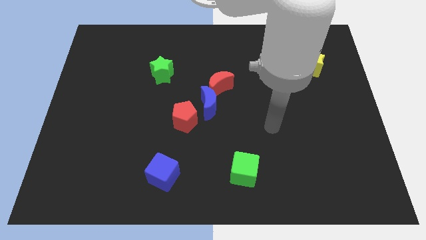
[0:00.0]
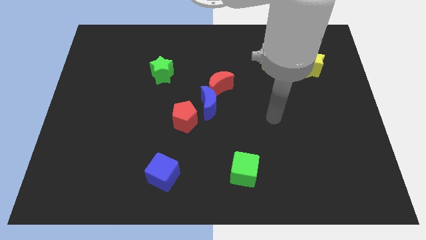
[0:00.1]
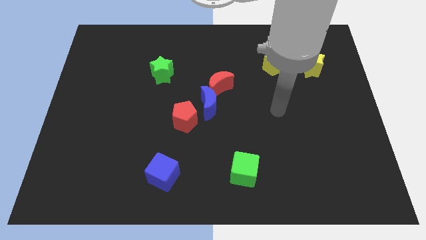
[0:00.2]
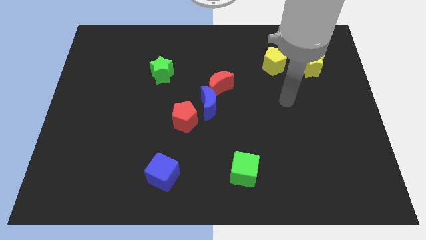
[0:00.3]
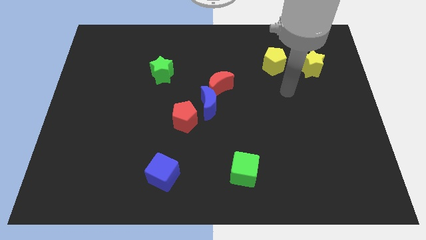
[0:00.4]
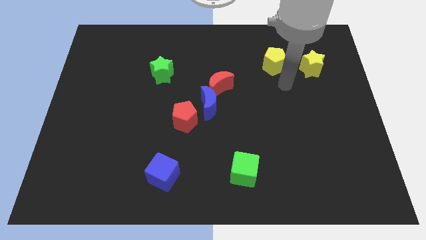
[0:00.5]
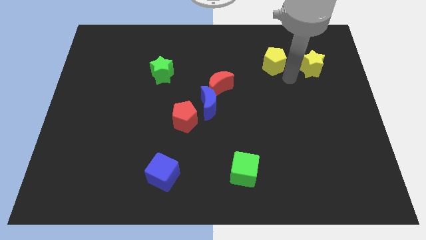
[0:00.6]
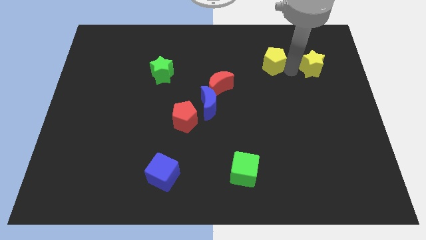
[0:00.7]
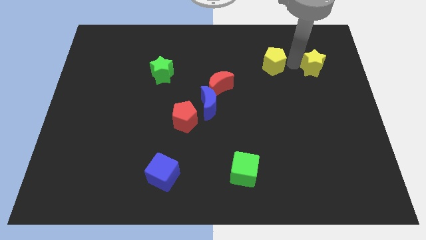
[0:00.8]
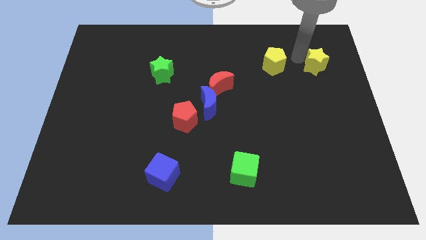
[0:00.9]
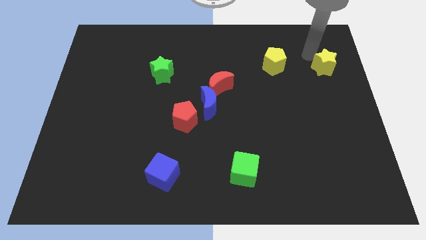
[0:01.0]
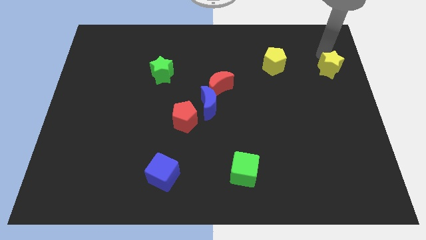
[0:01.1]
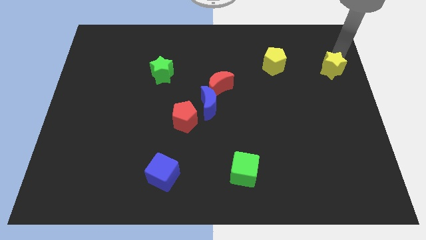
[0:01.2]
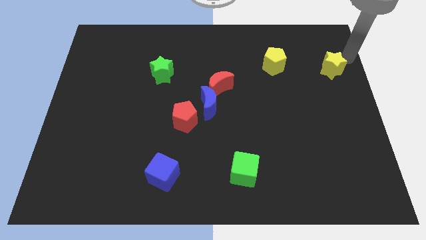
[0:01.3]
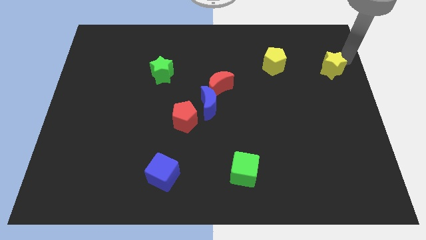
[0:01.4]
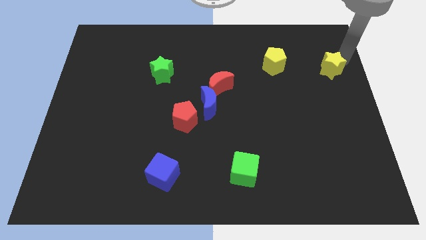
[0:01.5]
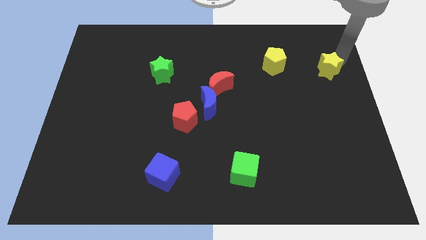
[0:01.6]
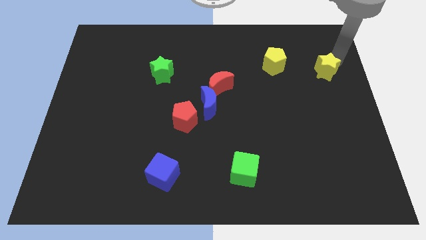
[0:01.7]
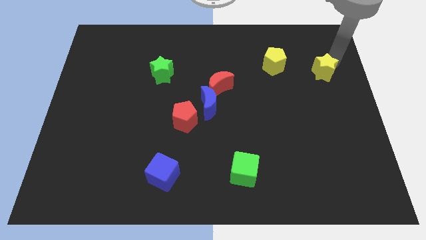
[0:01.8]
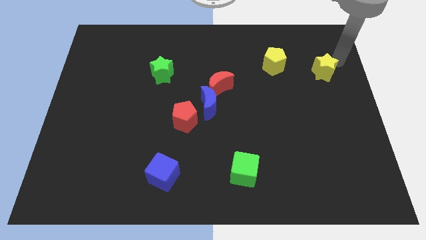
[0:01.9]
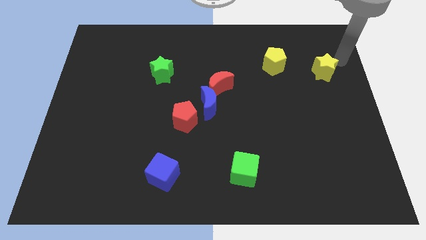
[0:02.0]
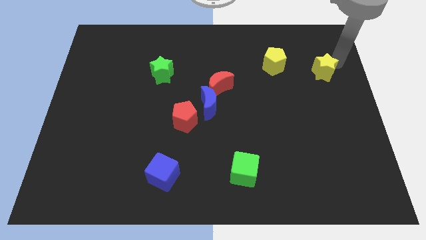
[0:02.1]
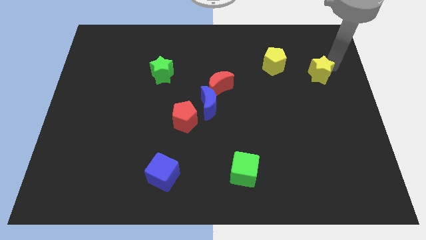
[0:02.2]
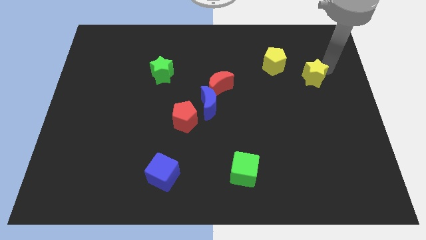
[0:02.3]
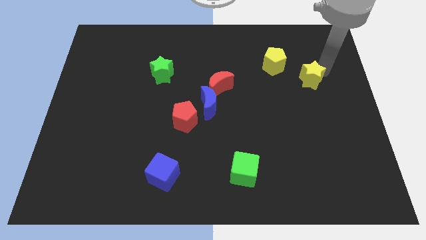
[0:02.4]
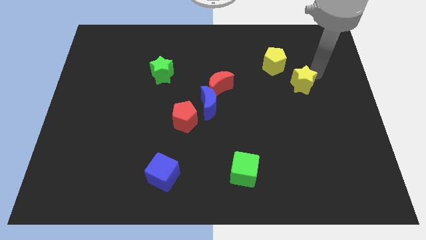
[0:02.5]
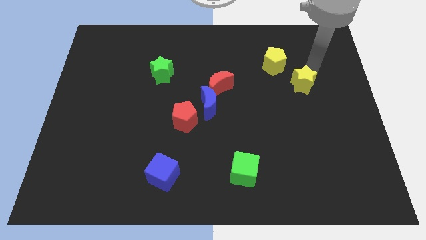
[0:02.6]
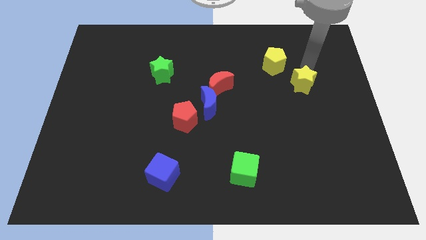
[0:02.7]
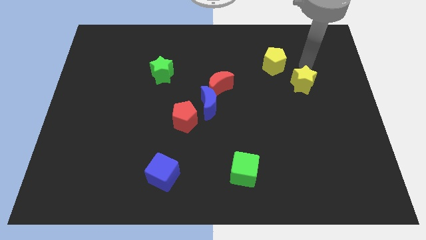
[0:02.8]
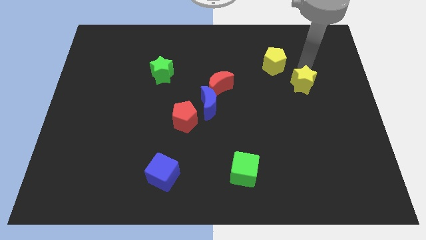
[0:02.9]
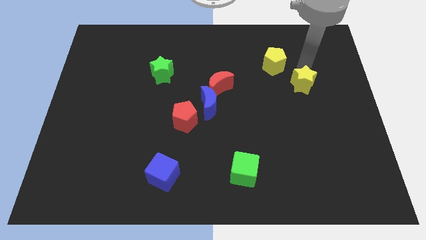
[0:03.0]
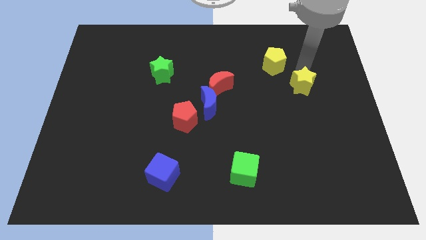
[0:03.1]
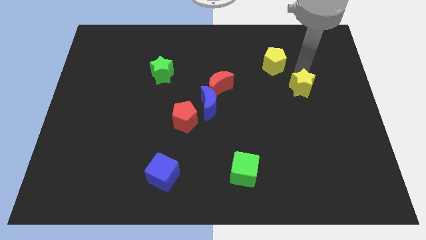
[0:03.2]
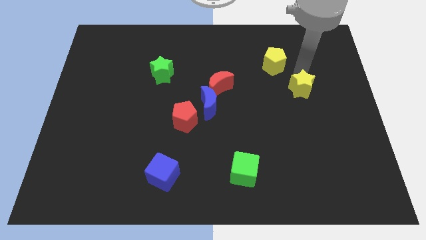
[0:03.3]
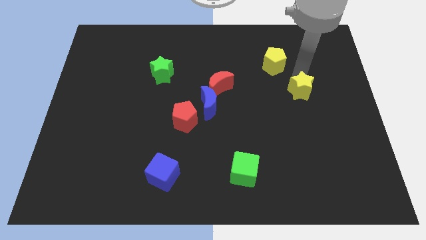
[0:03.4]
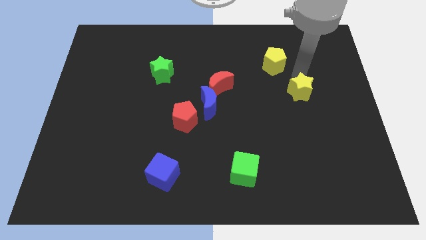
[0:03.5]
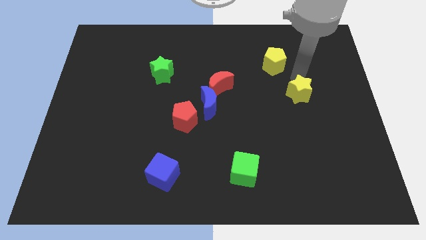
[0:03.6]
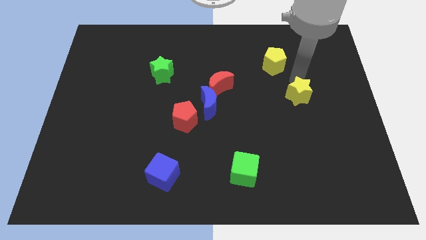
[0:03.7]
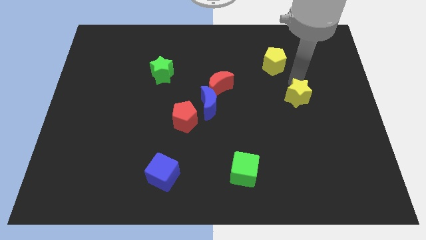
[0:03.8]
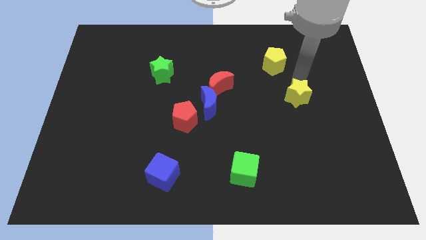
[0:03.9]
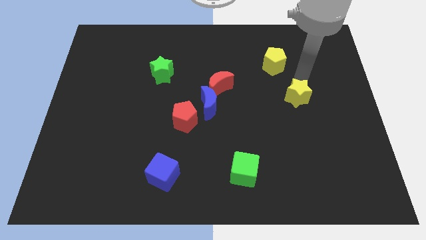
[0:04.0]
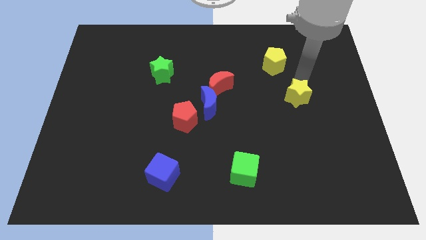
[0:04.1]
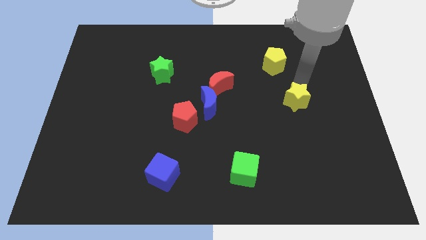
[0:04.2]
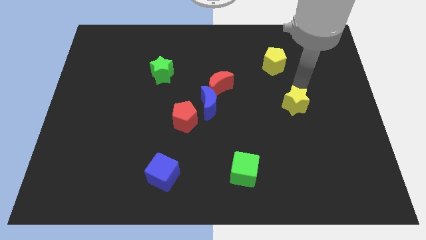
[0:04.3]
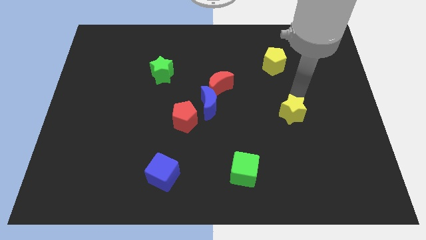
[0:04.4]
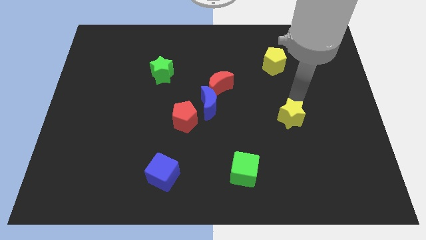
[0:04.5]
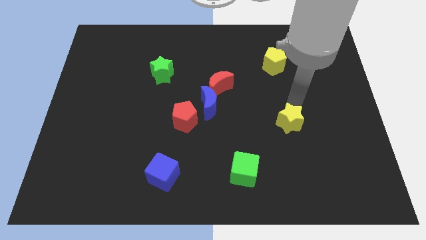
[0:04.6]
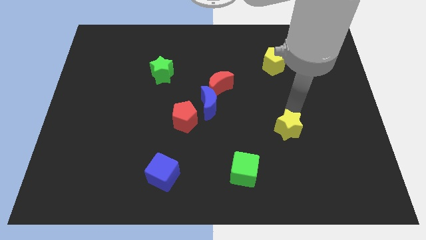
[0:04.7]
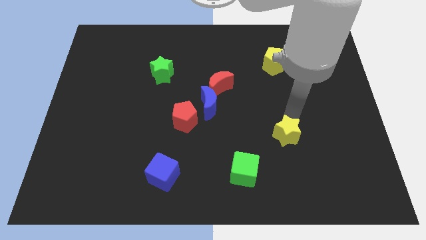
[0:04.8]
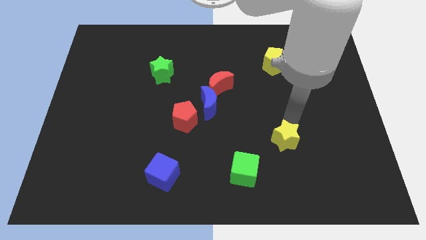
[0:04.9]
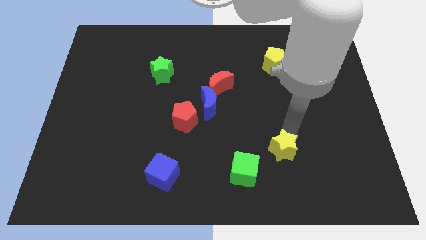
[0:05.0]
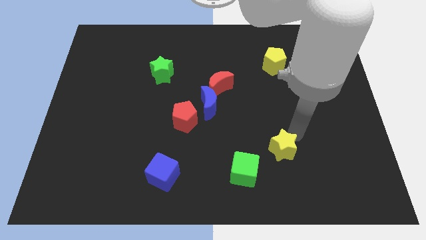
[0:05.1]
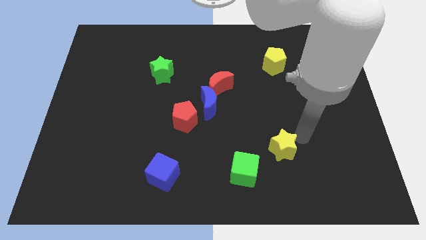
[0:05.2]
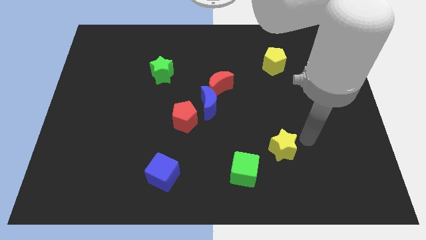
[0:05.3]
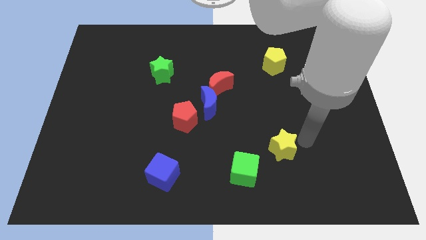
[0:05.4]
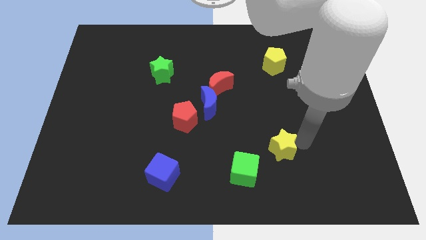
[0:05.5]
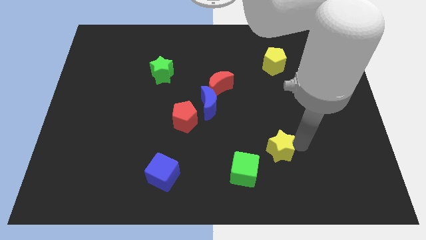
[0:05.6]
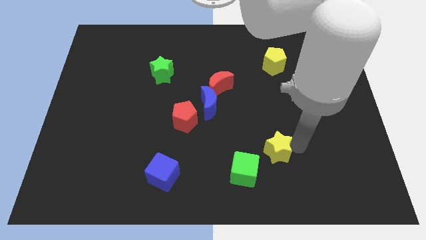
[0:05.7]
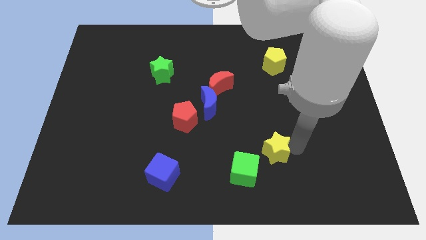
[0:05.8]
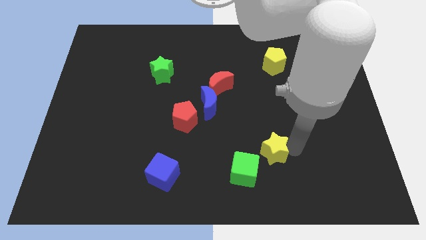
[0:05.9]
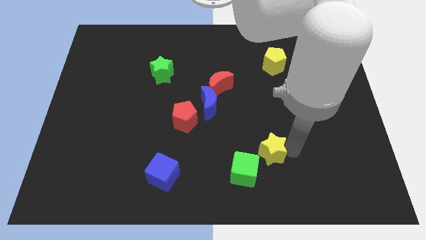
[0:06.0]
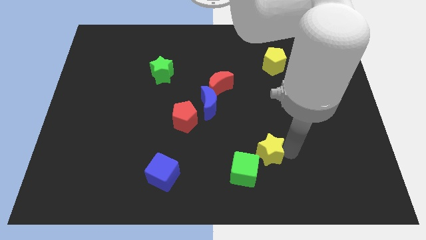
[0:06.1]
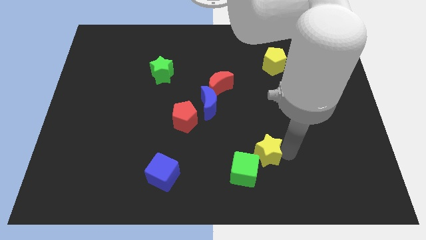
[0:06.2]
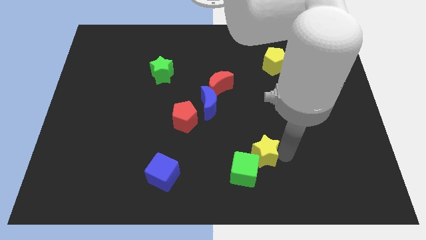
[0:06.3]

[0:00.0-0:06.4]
put the yellow star close to the green cube

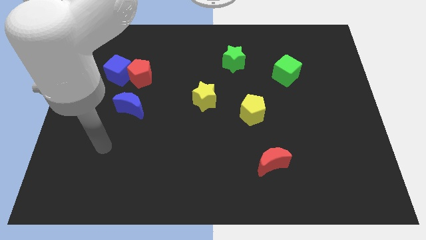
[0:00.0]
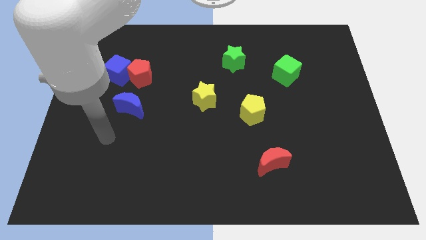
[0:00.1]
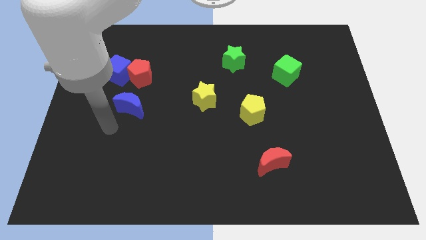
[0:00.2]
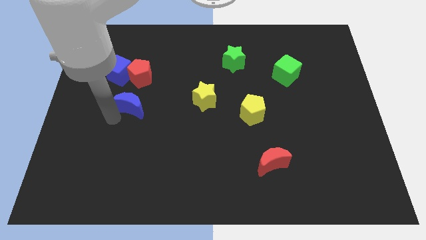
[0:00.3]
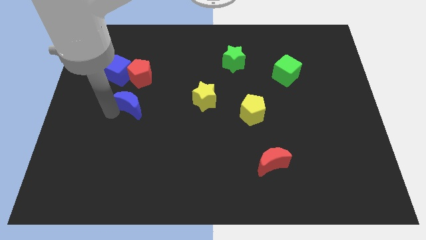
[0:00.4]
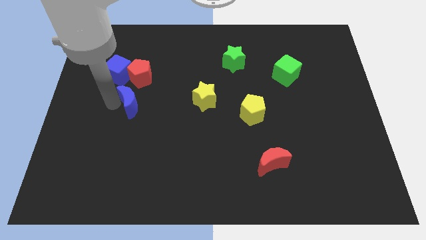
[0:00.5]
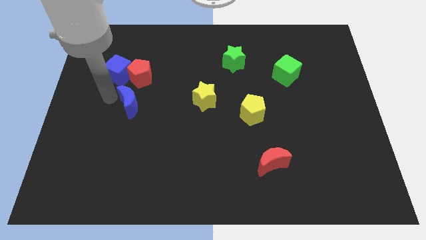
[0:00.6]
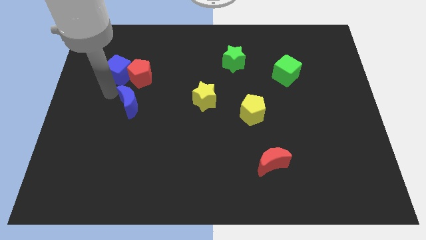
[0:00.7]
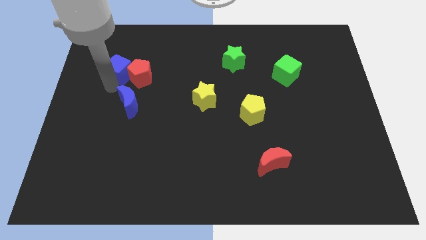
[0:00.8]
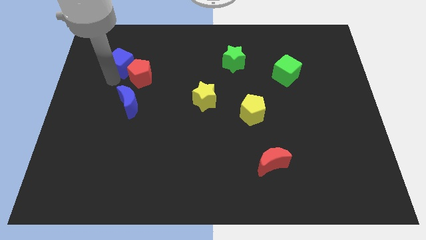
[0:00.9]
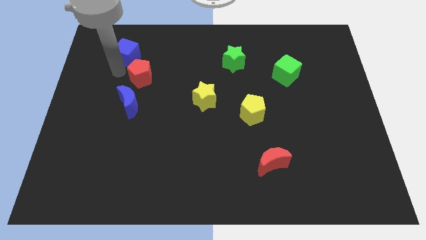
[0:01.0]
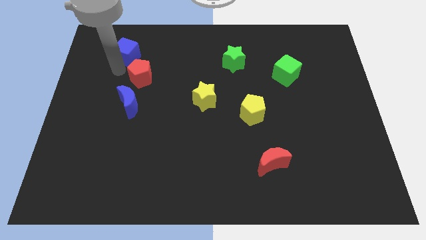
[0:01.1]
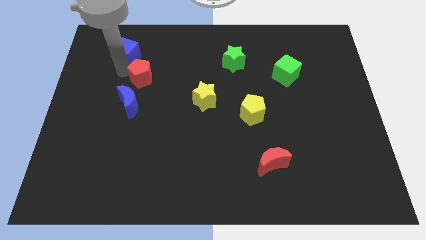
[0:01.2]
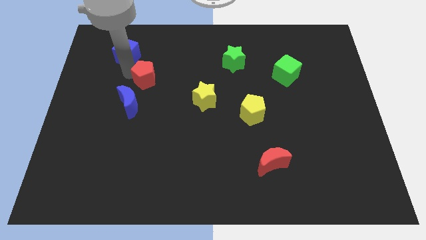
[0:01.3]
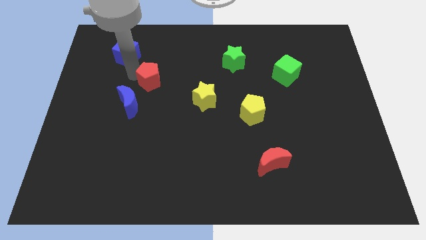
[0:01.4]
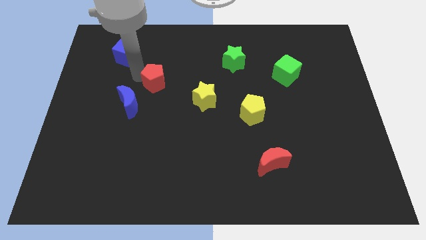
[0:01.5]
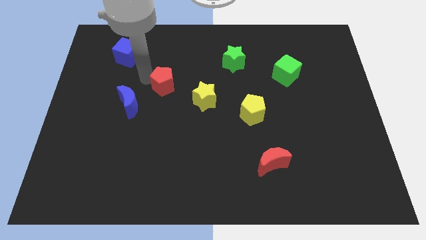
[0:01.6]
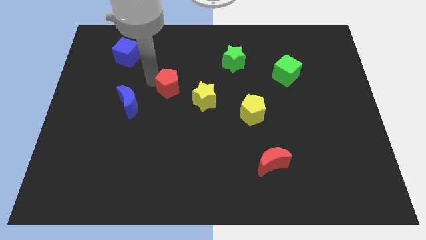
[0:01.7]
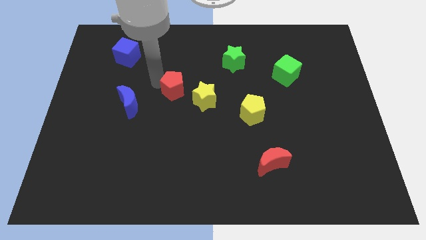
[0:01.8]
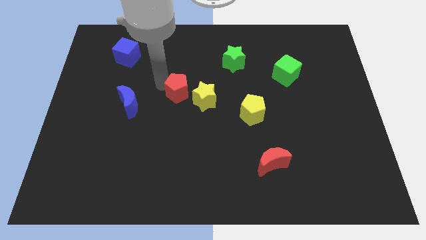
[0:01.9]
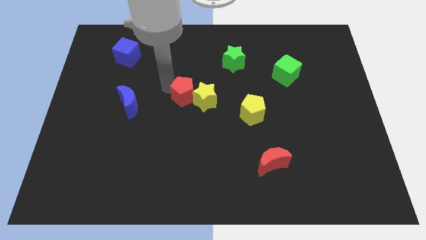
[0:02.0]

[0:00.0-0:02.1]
put the red pentagon towards the yellow star
